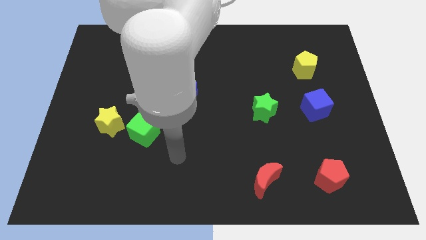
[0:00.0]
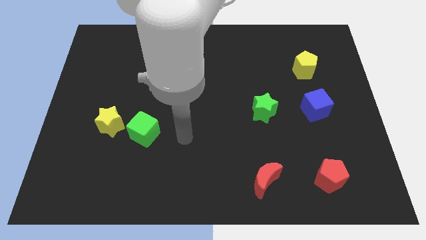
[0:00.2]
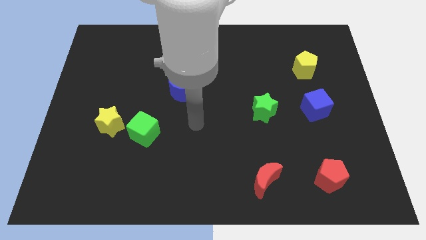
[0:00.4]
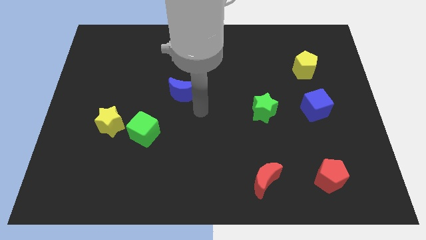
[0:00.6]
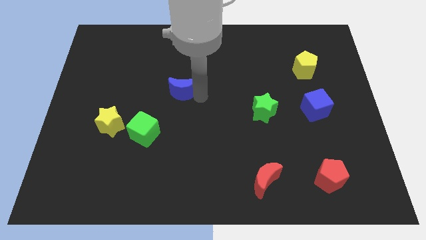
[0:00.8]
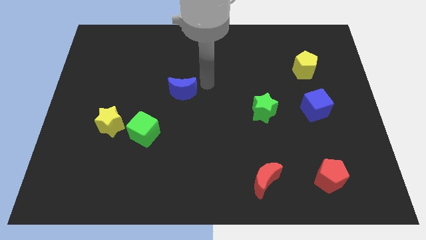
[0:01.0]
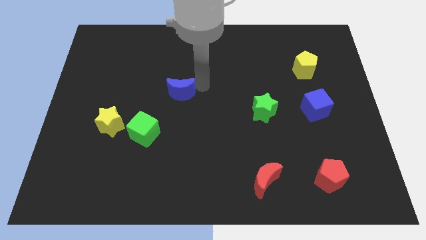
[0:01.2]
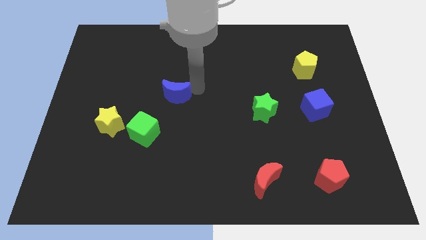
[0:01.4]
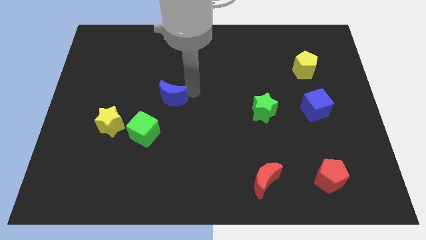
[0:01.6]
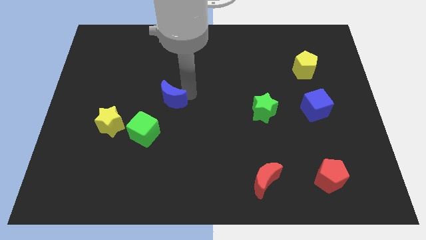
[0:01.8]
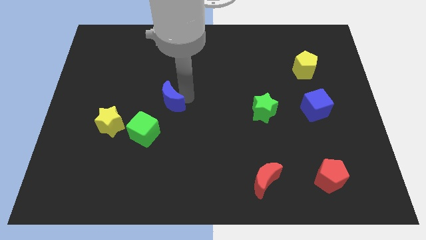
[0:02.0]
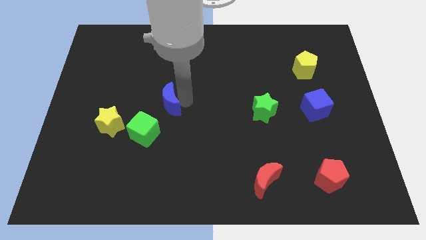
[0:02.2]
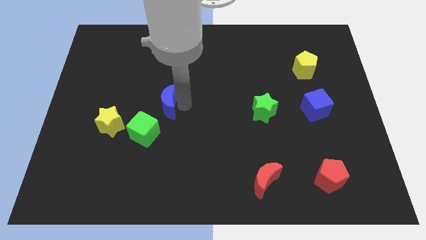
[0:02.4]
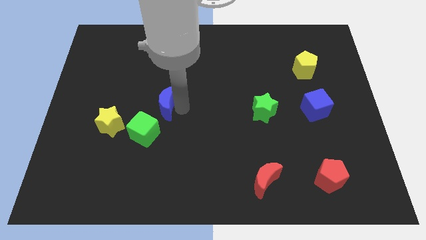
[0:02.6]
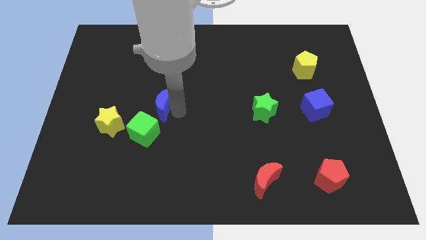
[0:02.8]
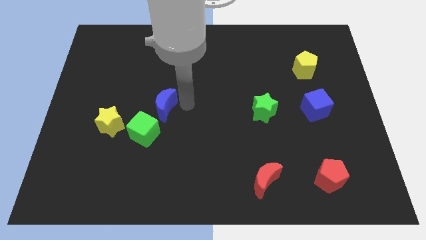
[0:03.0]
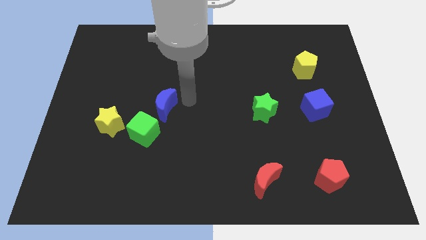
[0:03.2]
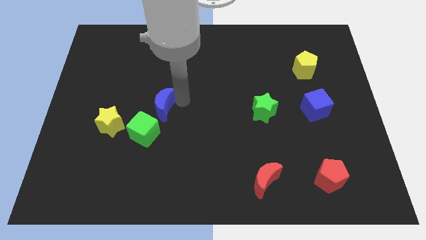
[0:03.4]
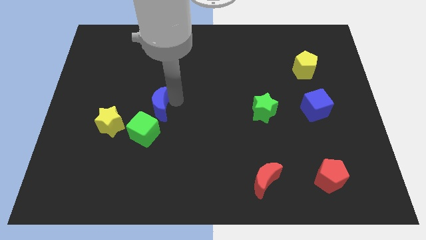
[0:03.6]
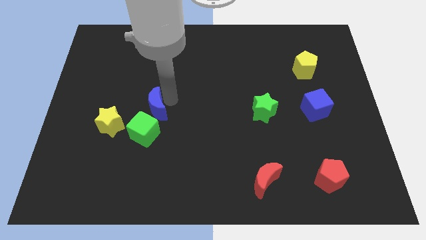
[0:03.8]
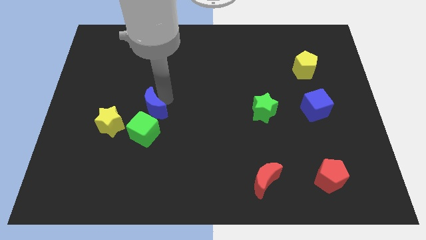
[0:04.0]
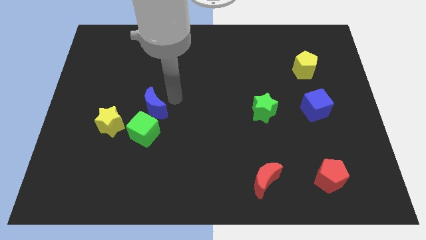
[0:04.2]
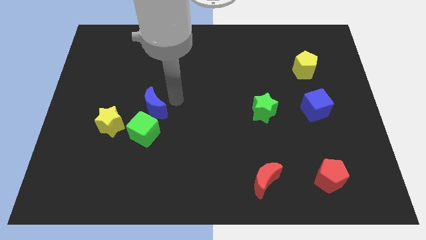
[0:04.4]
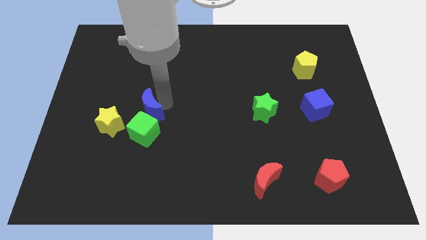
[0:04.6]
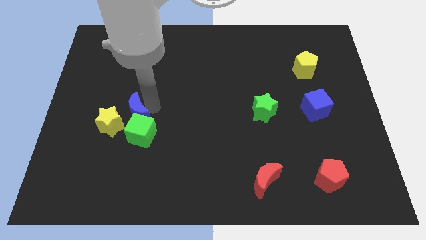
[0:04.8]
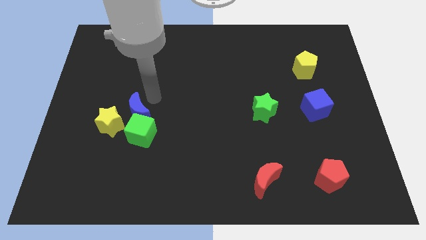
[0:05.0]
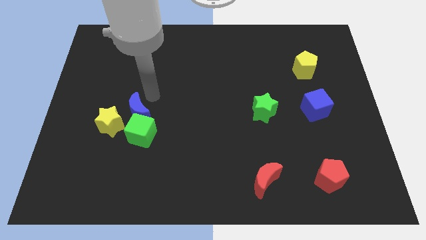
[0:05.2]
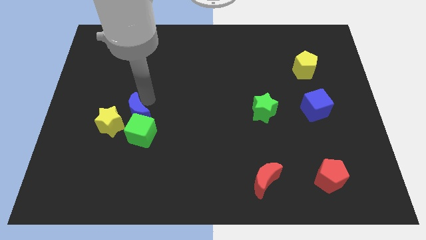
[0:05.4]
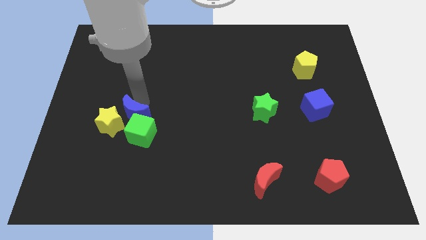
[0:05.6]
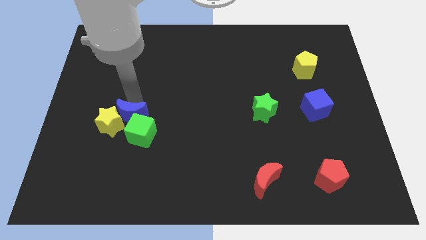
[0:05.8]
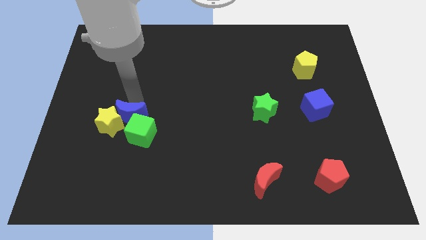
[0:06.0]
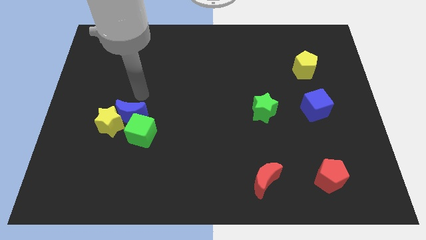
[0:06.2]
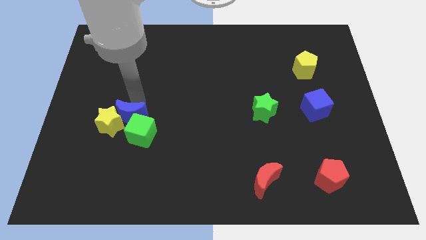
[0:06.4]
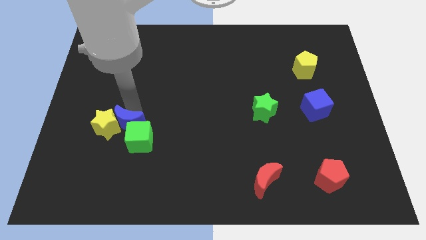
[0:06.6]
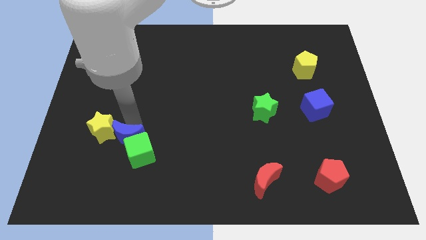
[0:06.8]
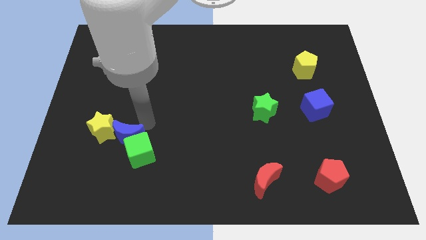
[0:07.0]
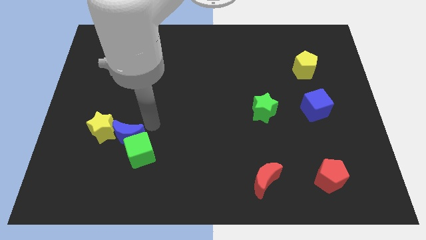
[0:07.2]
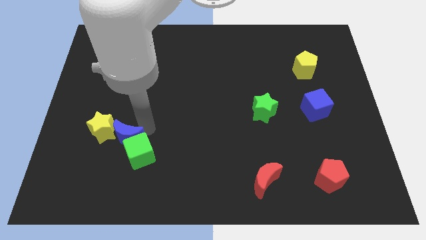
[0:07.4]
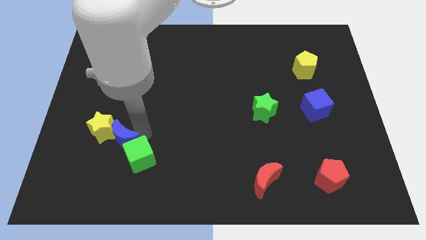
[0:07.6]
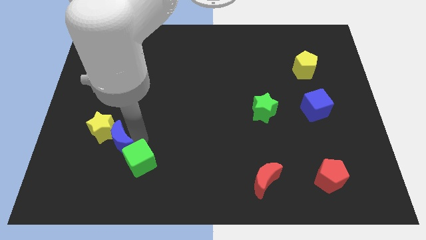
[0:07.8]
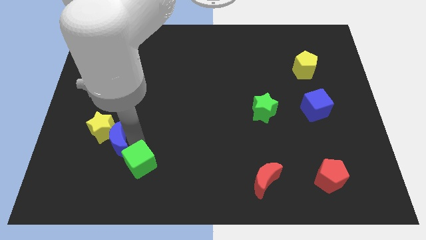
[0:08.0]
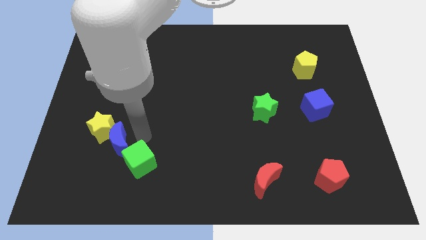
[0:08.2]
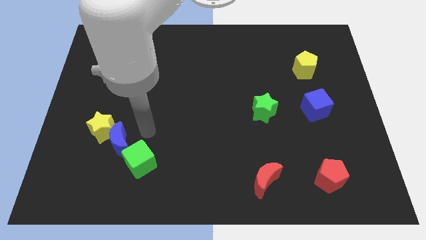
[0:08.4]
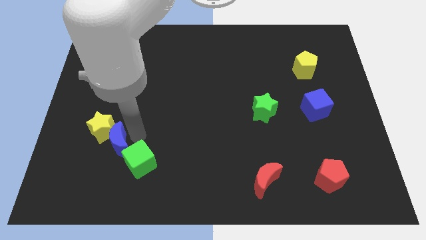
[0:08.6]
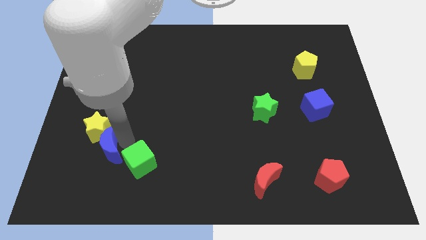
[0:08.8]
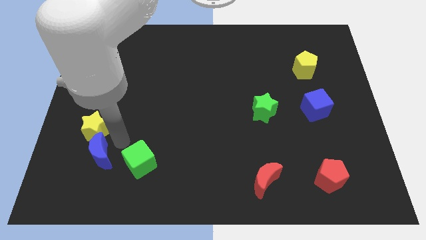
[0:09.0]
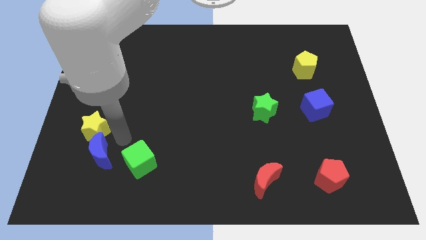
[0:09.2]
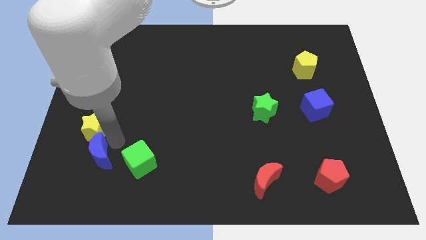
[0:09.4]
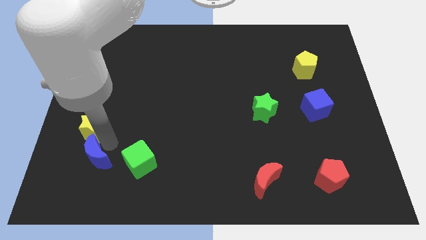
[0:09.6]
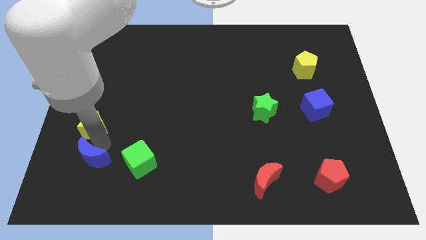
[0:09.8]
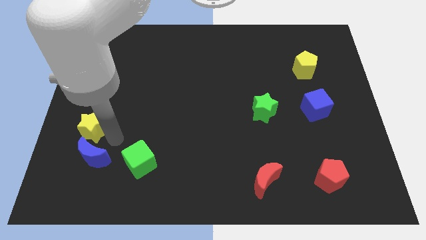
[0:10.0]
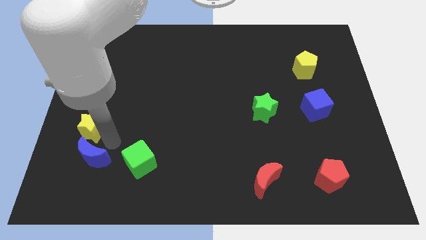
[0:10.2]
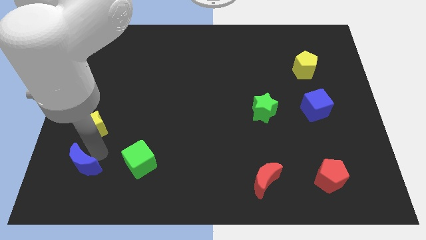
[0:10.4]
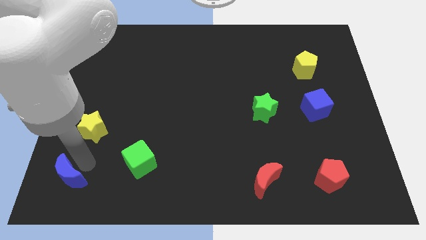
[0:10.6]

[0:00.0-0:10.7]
put the blue moon to the lower left corner
